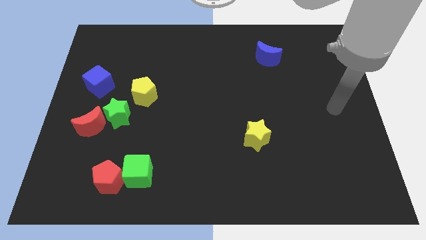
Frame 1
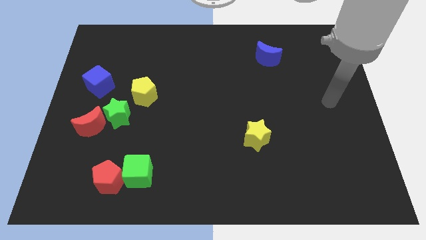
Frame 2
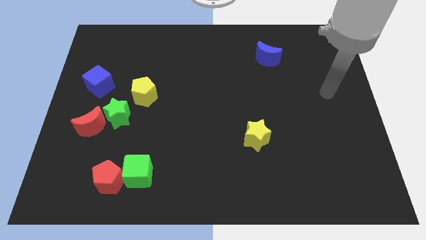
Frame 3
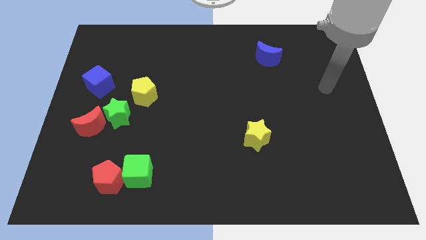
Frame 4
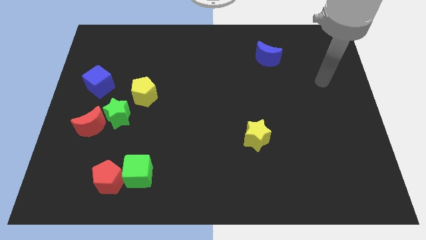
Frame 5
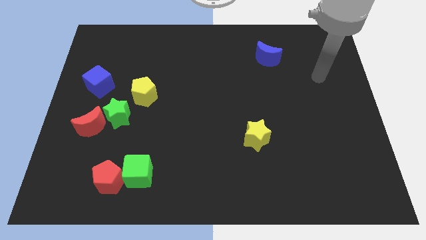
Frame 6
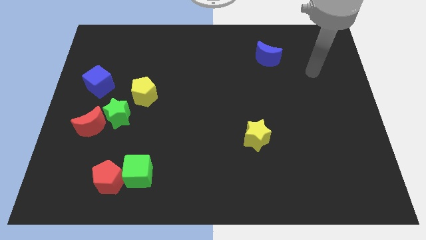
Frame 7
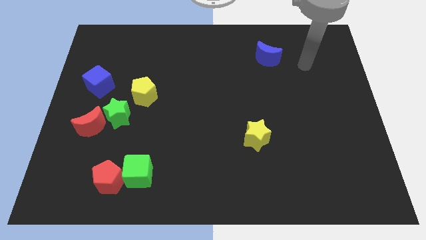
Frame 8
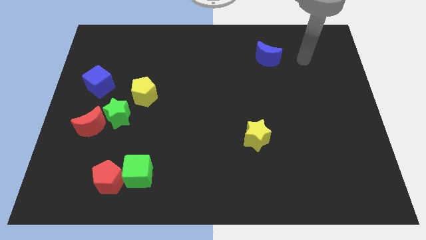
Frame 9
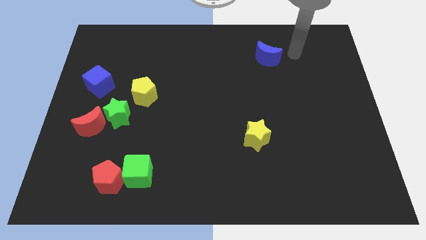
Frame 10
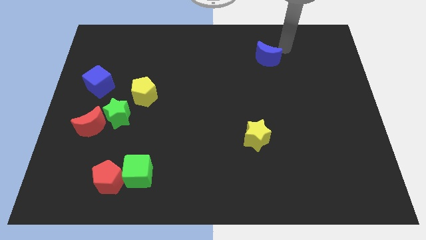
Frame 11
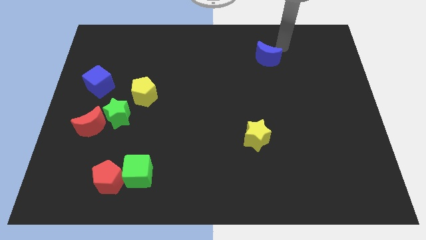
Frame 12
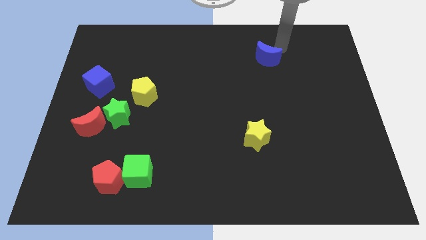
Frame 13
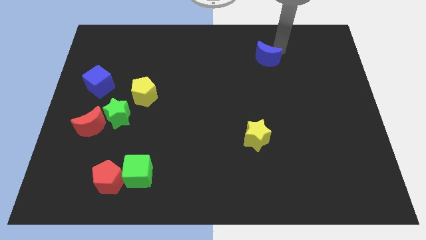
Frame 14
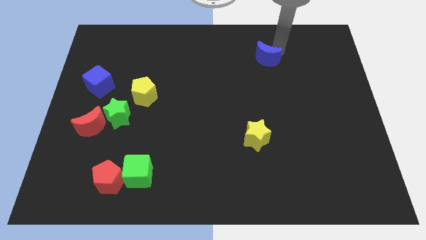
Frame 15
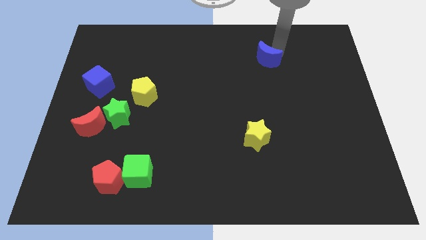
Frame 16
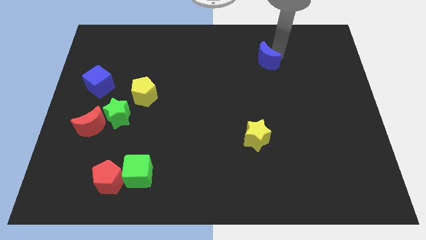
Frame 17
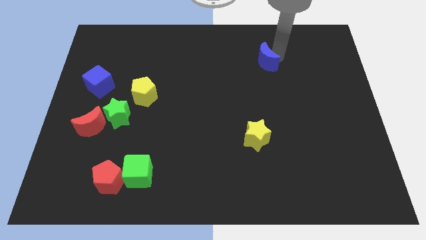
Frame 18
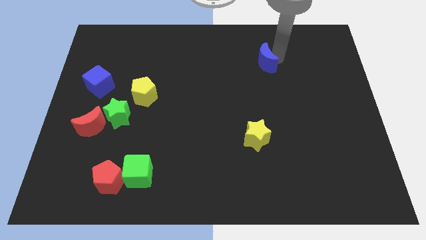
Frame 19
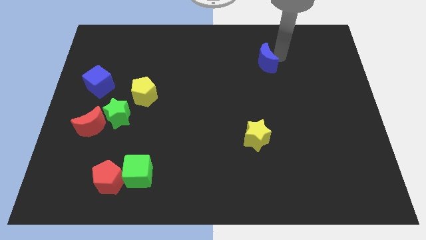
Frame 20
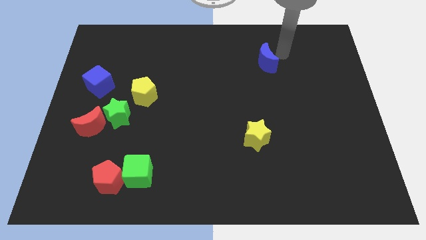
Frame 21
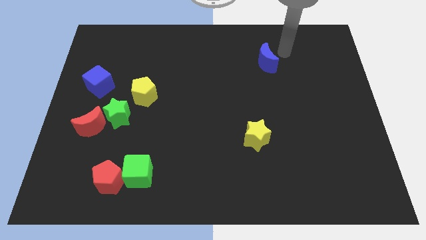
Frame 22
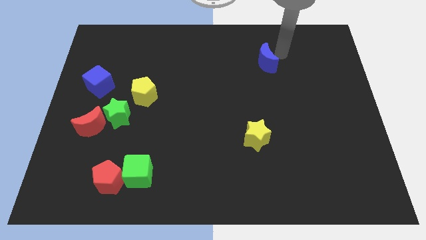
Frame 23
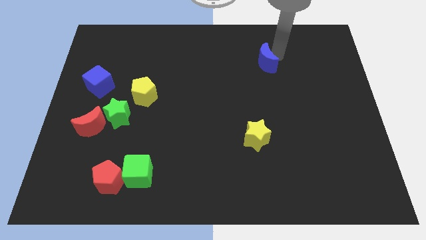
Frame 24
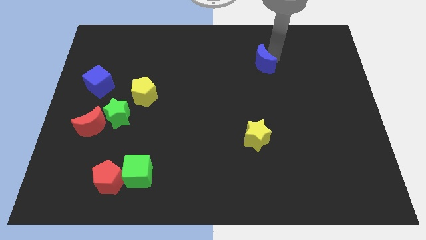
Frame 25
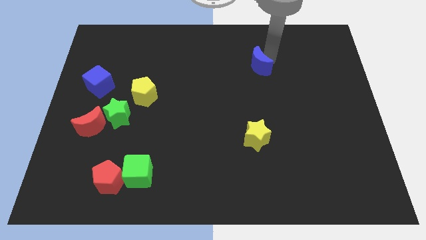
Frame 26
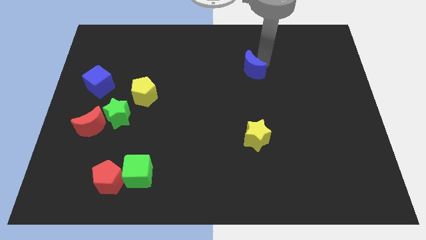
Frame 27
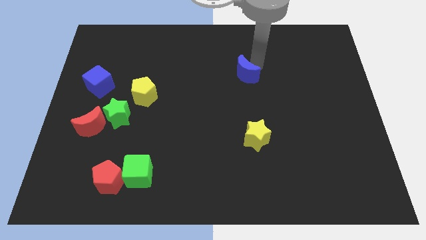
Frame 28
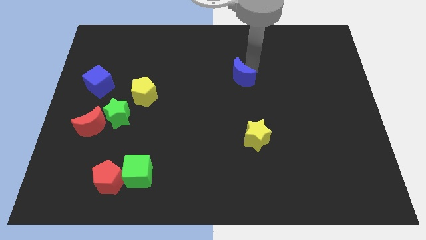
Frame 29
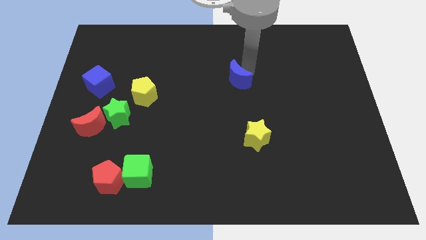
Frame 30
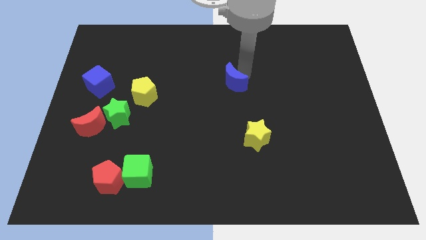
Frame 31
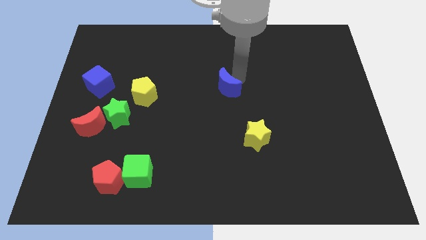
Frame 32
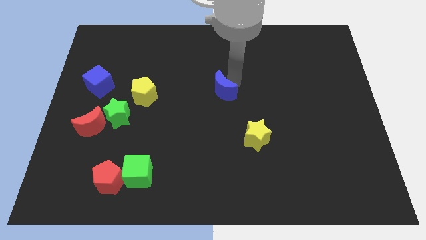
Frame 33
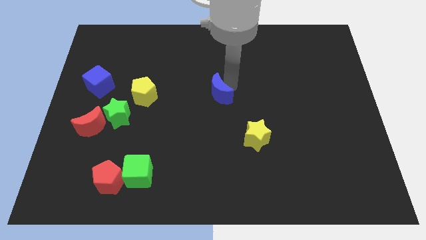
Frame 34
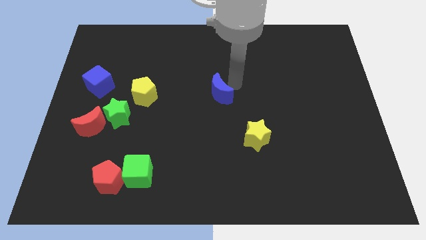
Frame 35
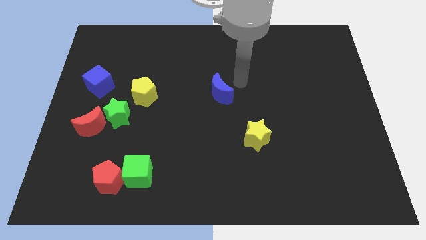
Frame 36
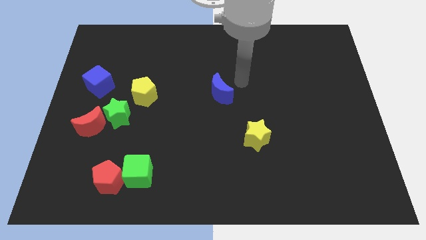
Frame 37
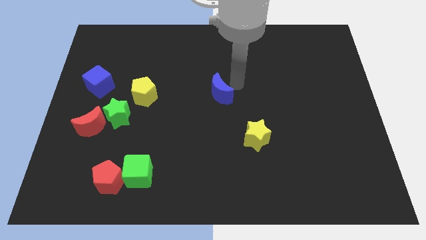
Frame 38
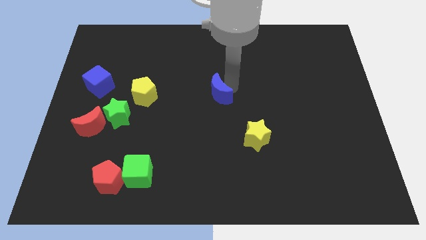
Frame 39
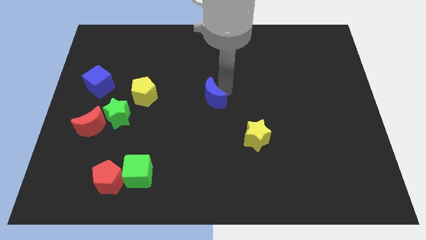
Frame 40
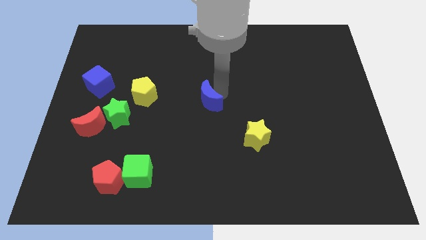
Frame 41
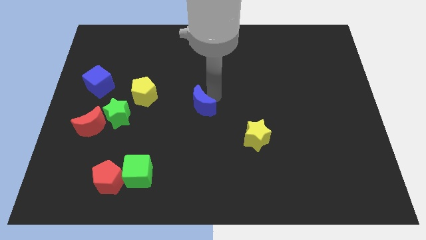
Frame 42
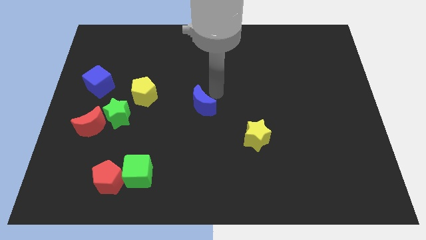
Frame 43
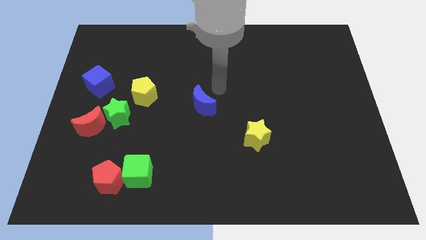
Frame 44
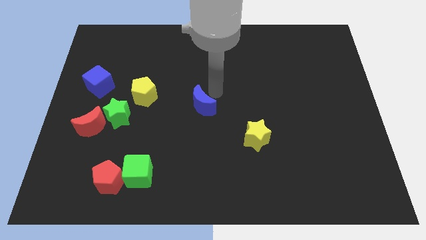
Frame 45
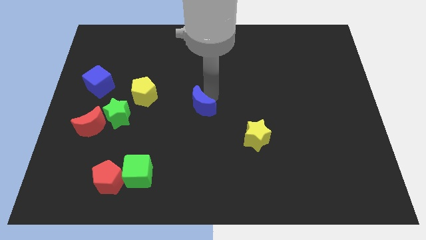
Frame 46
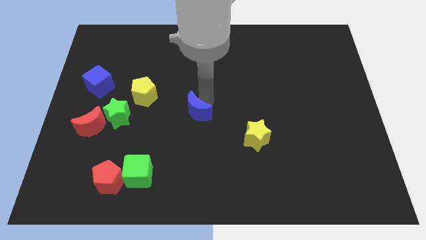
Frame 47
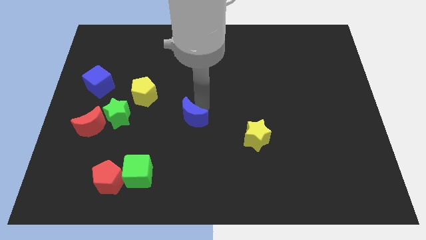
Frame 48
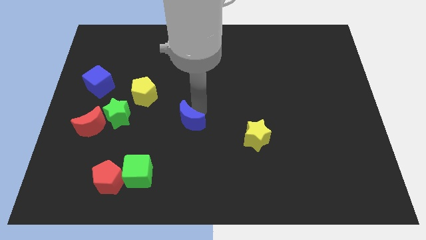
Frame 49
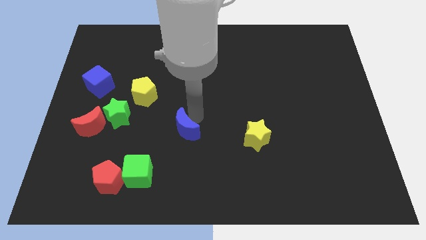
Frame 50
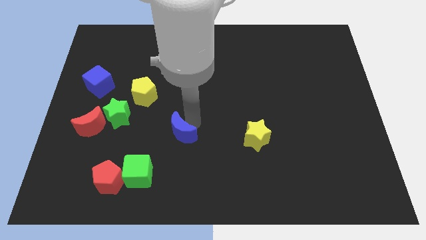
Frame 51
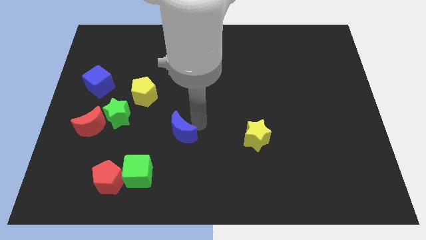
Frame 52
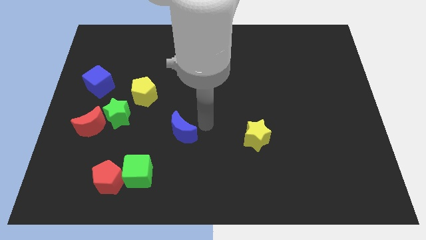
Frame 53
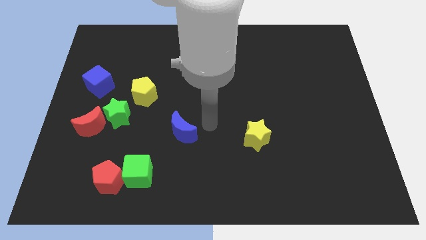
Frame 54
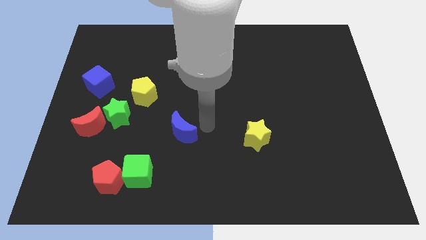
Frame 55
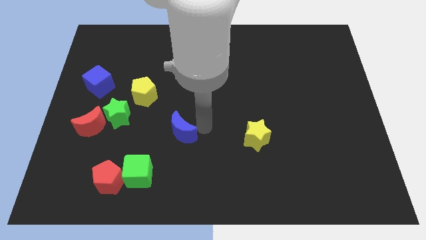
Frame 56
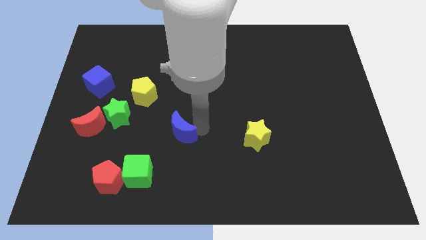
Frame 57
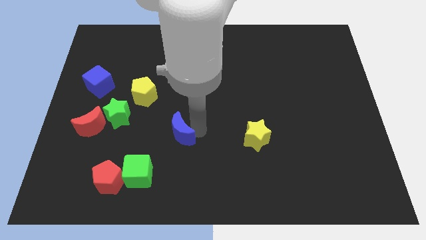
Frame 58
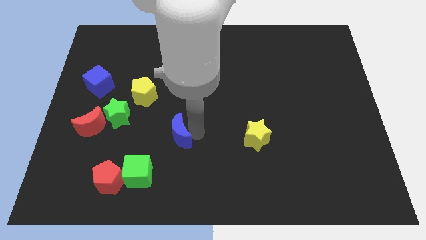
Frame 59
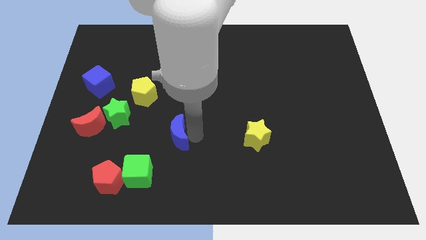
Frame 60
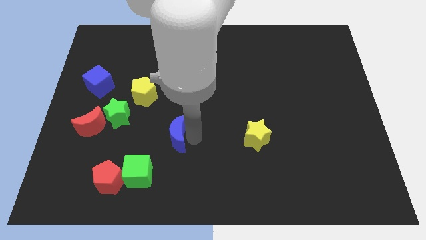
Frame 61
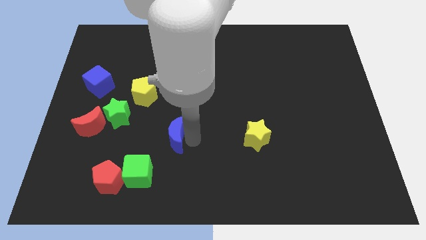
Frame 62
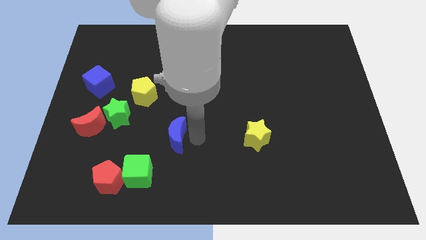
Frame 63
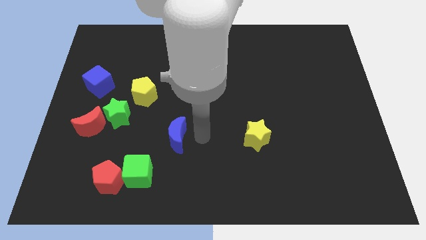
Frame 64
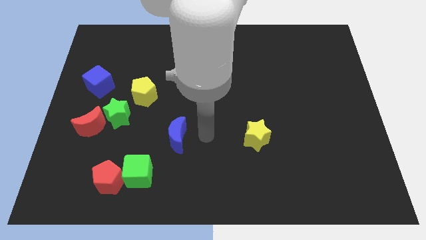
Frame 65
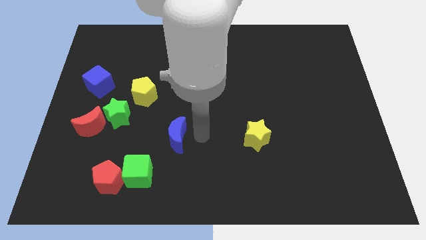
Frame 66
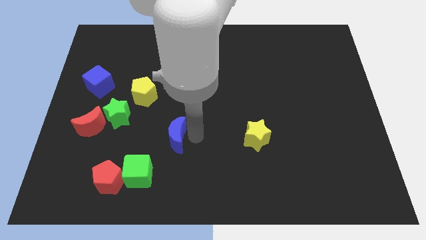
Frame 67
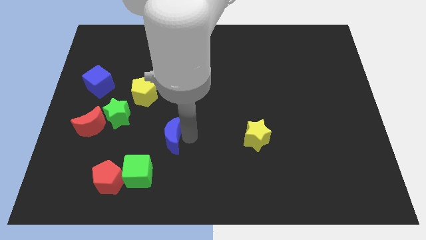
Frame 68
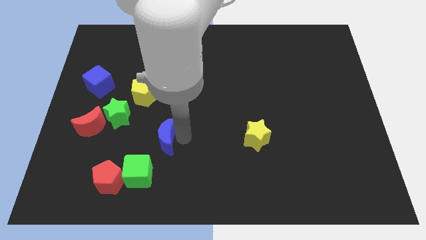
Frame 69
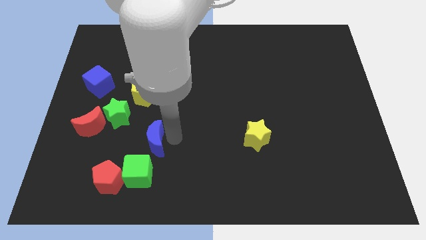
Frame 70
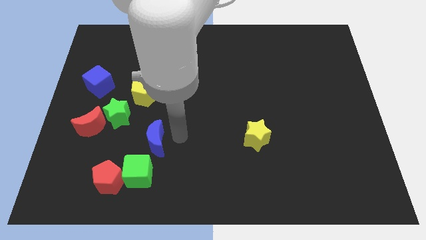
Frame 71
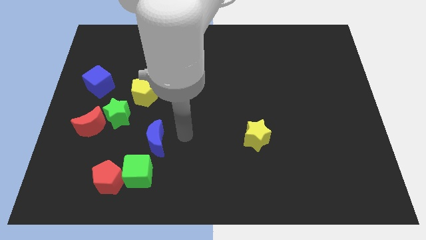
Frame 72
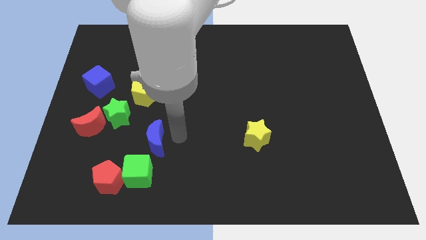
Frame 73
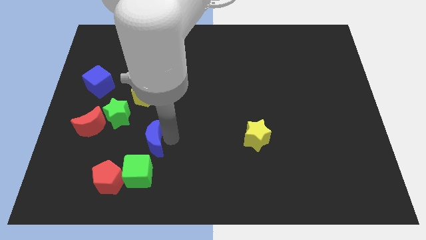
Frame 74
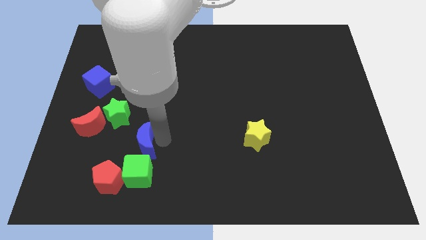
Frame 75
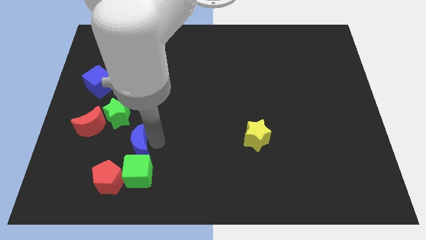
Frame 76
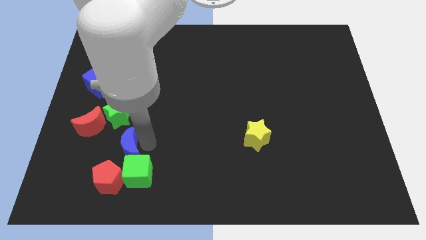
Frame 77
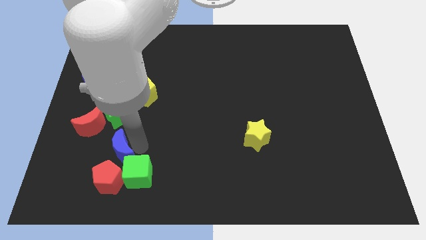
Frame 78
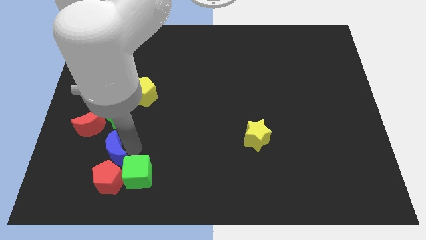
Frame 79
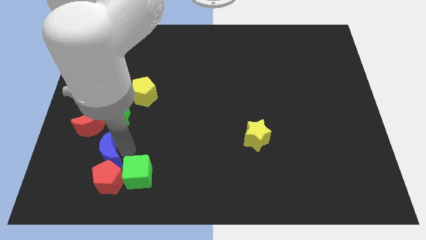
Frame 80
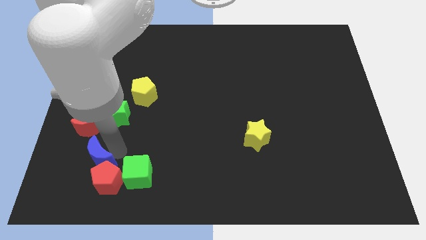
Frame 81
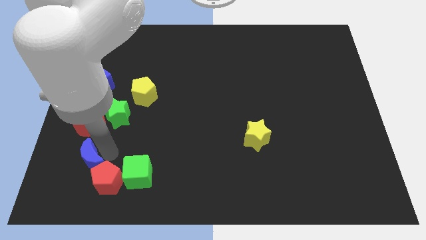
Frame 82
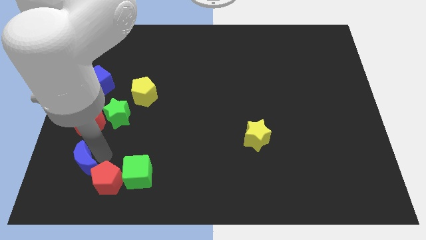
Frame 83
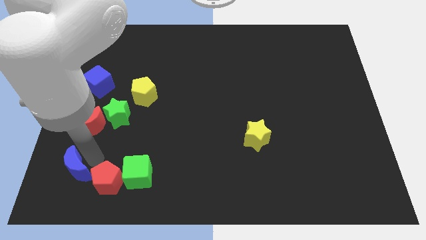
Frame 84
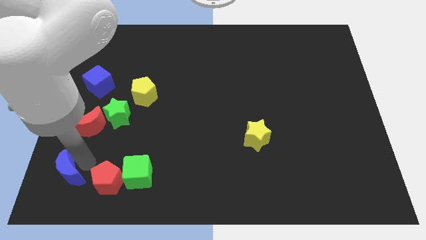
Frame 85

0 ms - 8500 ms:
move the blue moon to the lower left corner
